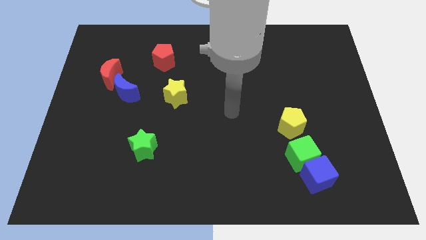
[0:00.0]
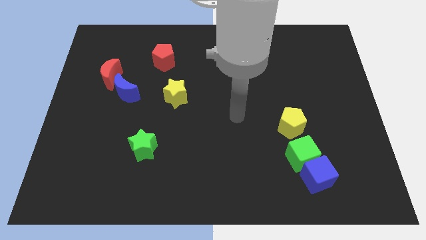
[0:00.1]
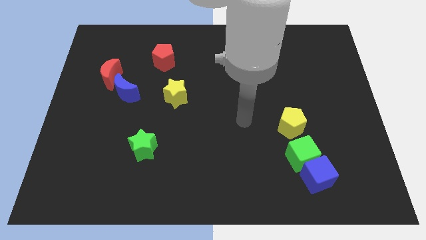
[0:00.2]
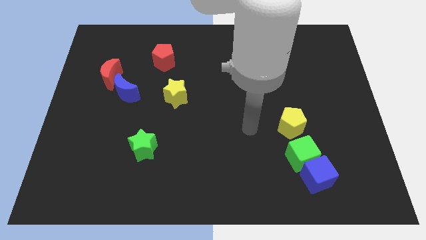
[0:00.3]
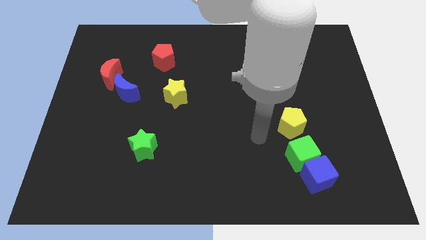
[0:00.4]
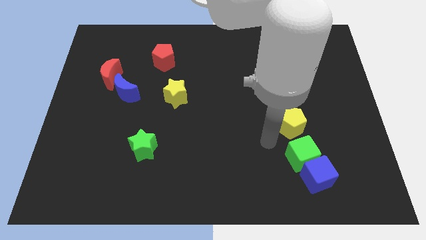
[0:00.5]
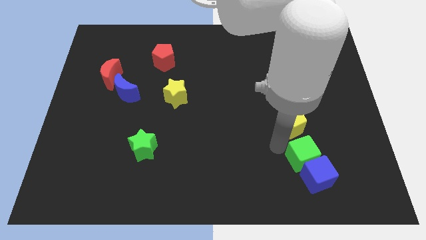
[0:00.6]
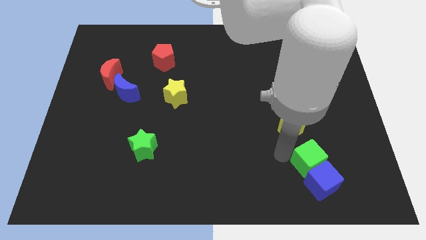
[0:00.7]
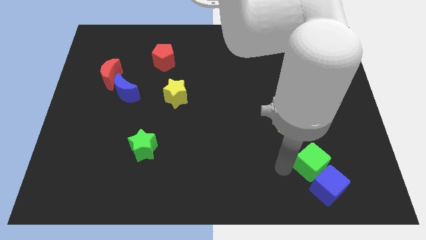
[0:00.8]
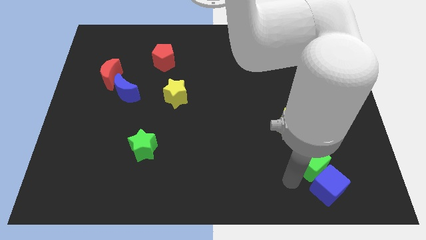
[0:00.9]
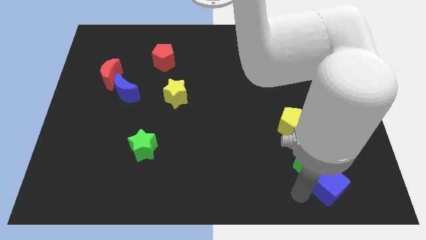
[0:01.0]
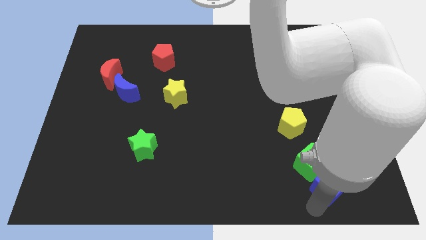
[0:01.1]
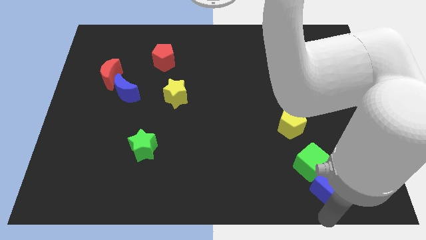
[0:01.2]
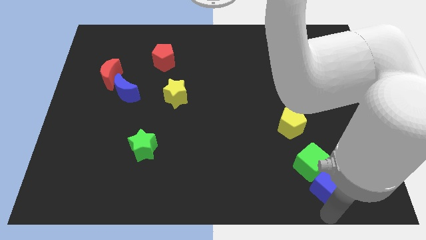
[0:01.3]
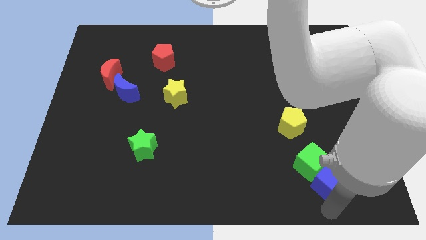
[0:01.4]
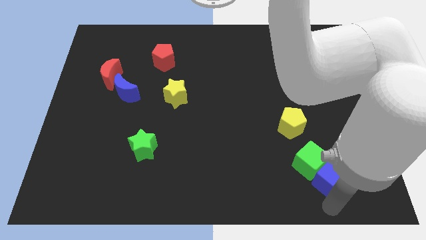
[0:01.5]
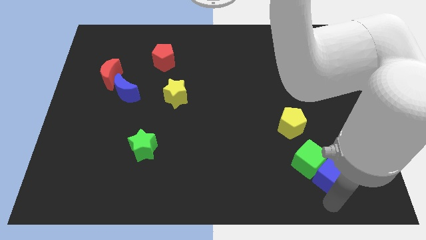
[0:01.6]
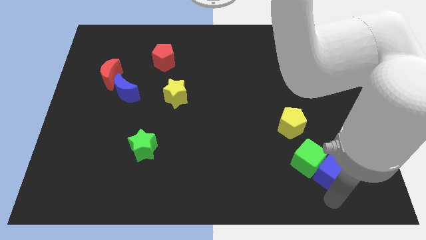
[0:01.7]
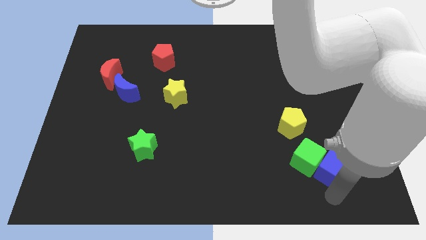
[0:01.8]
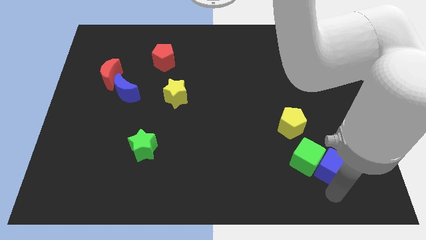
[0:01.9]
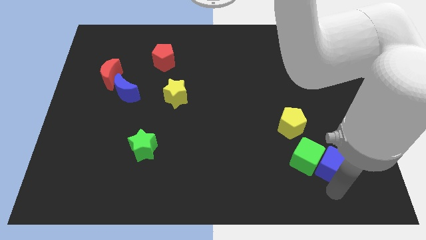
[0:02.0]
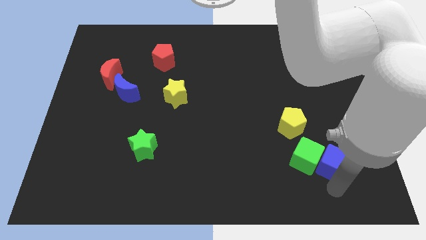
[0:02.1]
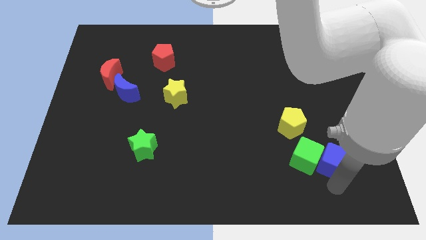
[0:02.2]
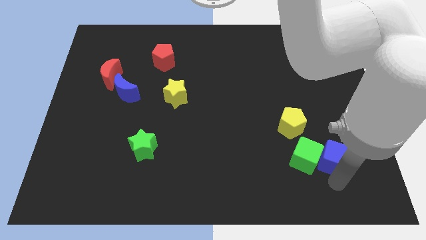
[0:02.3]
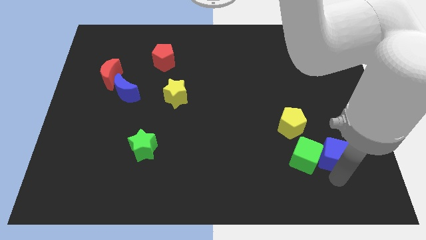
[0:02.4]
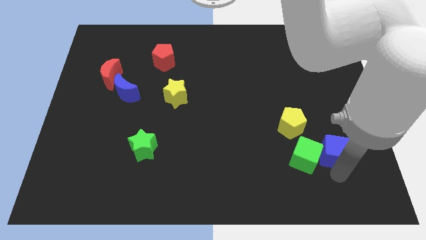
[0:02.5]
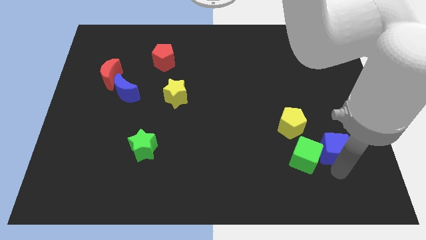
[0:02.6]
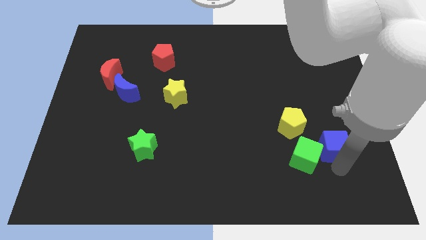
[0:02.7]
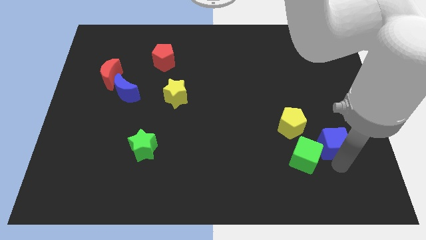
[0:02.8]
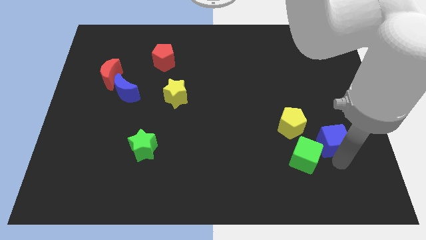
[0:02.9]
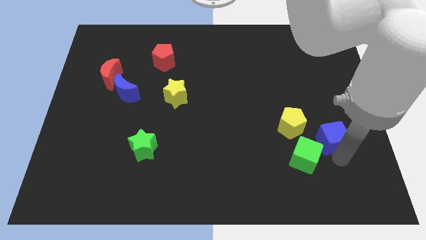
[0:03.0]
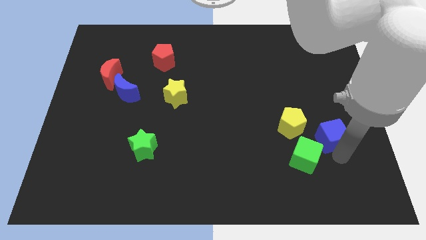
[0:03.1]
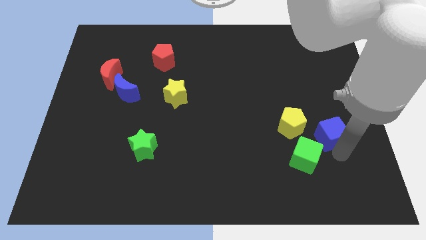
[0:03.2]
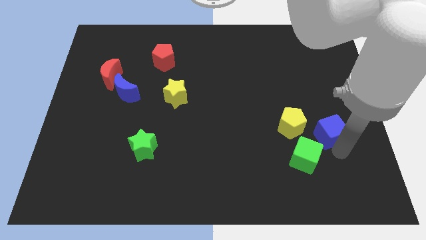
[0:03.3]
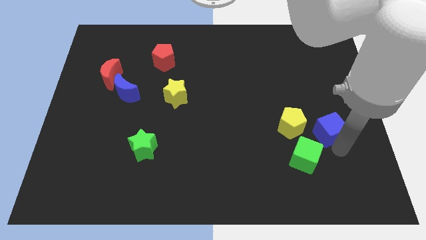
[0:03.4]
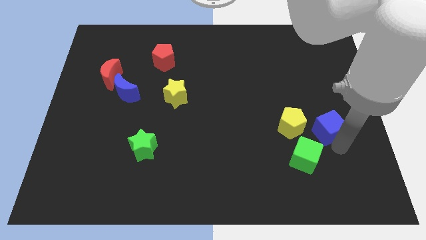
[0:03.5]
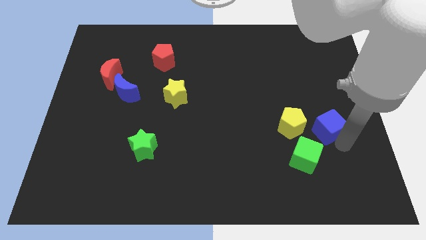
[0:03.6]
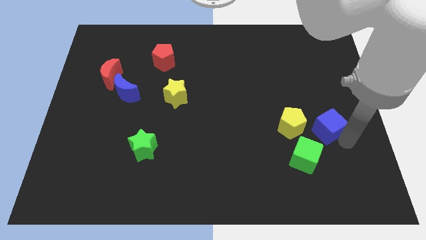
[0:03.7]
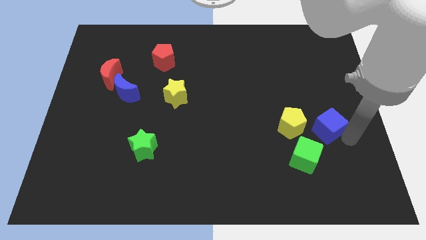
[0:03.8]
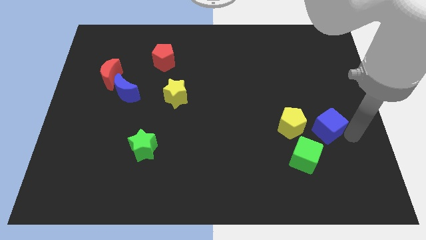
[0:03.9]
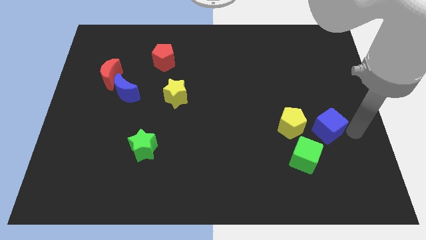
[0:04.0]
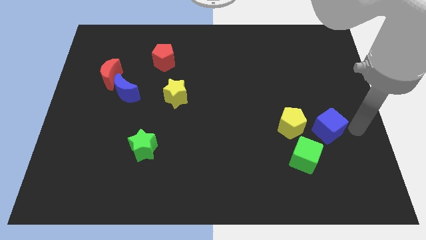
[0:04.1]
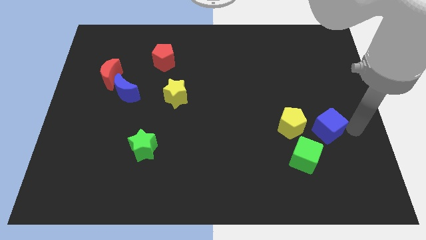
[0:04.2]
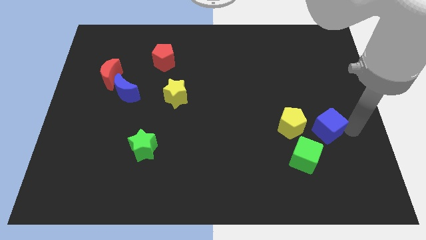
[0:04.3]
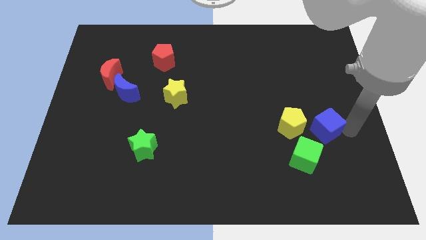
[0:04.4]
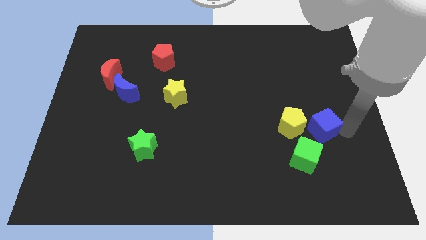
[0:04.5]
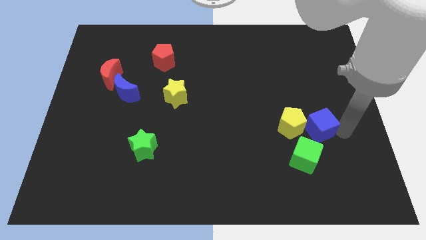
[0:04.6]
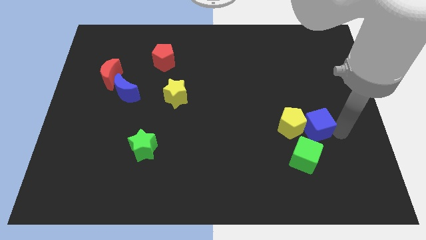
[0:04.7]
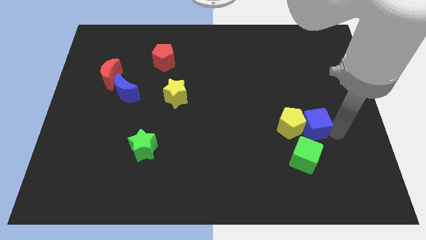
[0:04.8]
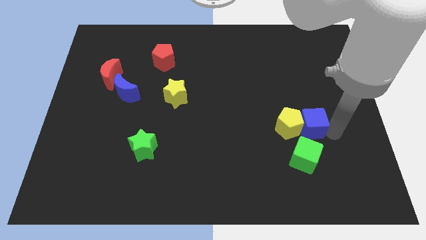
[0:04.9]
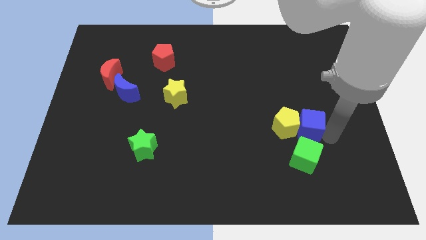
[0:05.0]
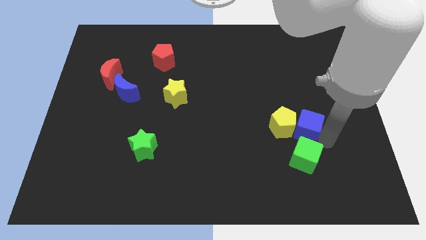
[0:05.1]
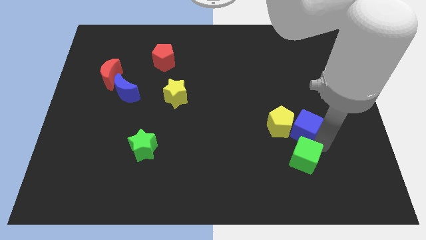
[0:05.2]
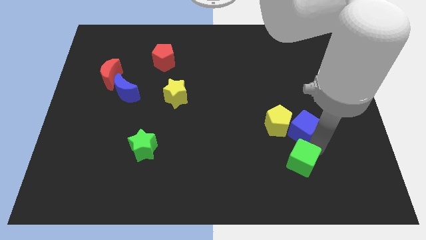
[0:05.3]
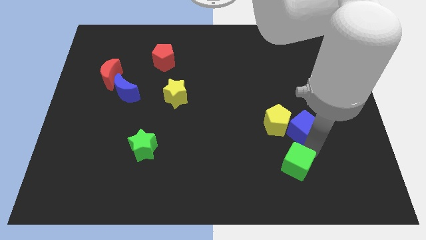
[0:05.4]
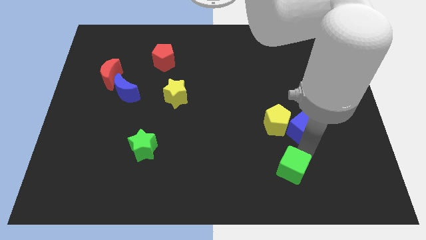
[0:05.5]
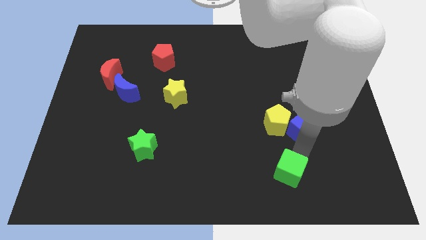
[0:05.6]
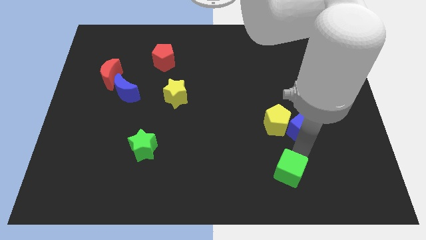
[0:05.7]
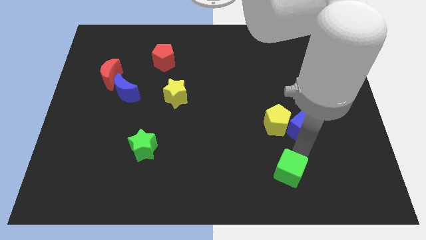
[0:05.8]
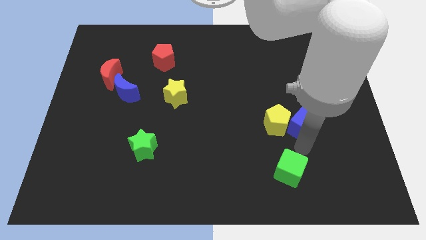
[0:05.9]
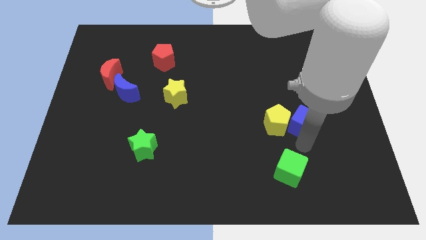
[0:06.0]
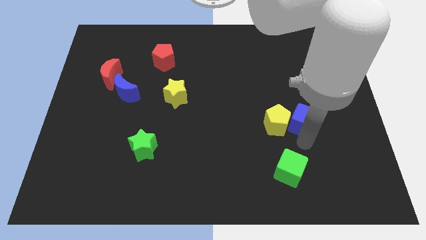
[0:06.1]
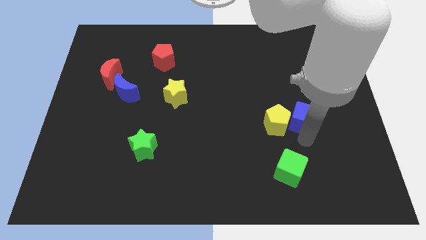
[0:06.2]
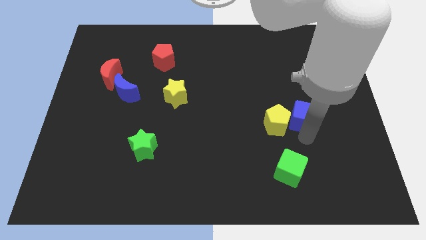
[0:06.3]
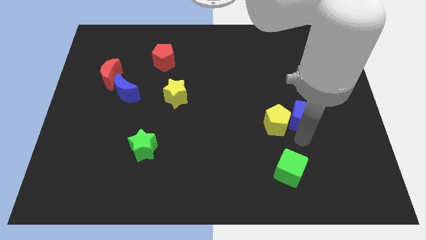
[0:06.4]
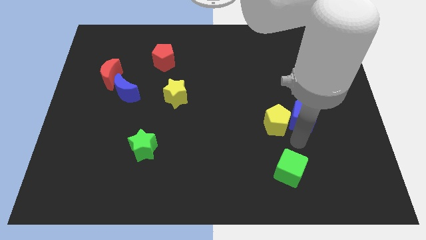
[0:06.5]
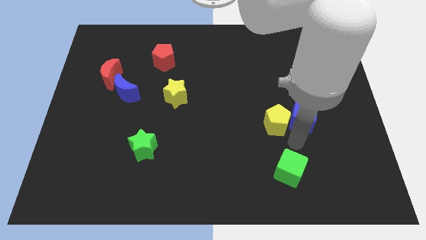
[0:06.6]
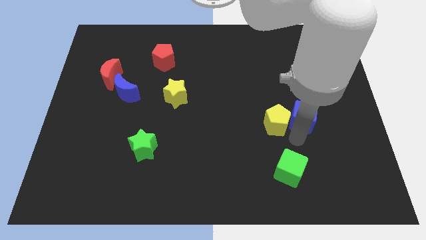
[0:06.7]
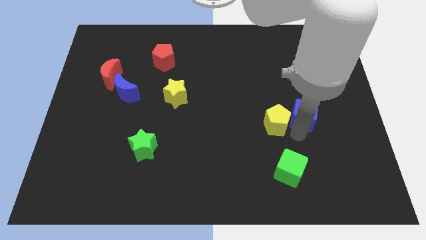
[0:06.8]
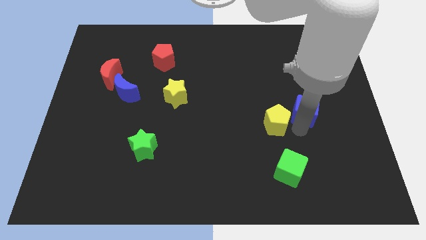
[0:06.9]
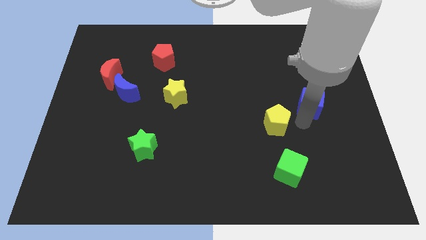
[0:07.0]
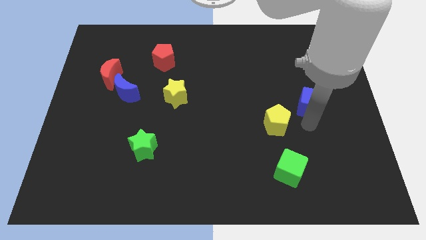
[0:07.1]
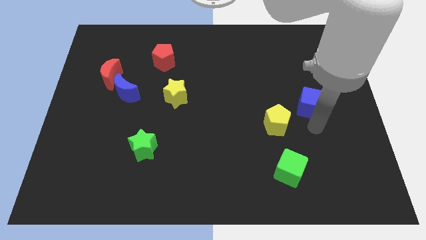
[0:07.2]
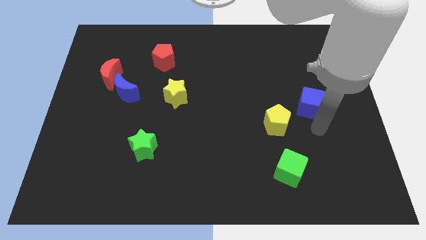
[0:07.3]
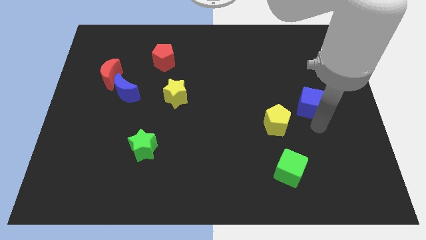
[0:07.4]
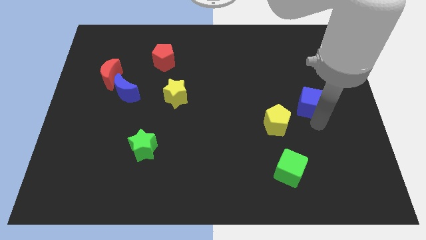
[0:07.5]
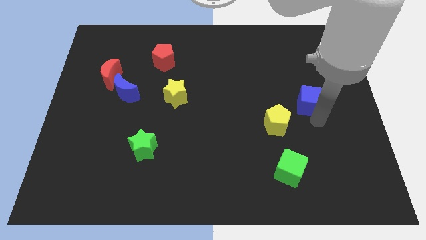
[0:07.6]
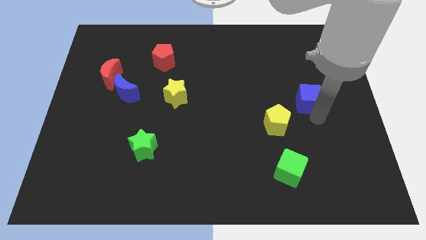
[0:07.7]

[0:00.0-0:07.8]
slide the blue cube up
